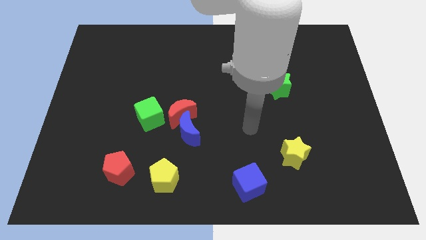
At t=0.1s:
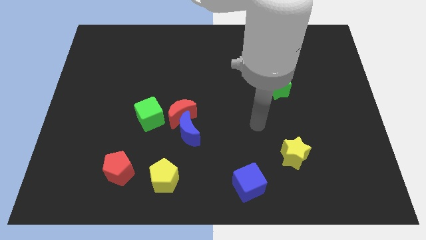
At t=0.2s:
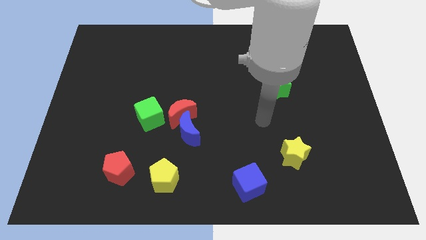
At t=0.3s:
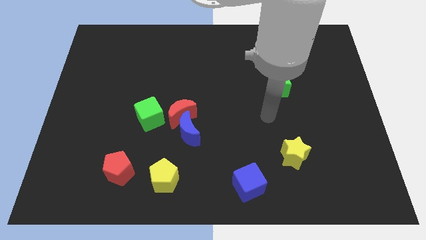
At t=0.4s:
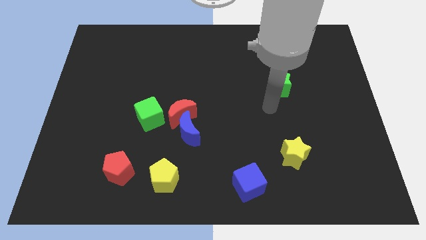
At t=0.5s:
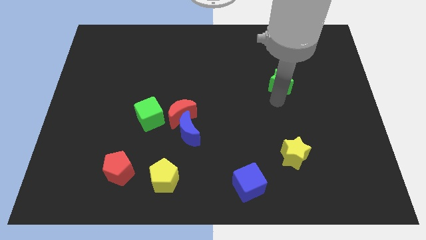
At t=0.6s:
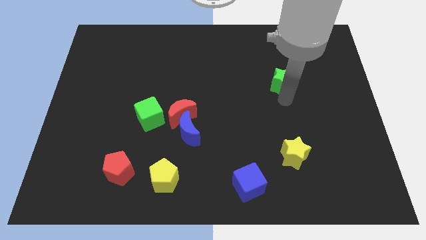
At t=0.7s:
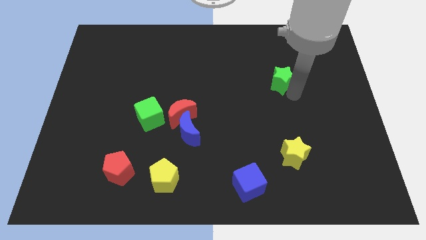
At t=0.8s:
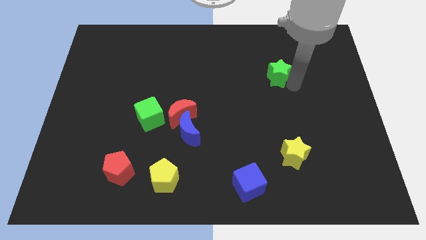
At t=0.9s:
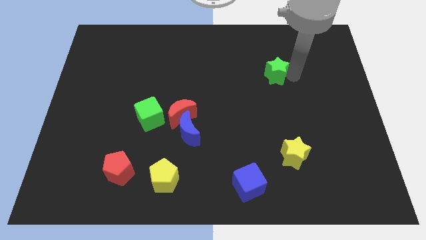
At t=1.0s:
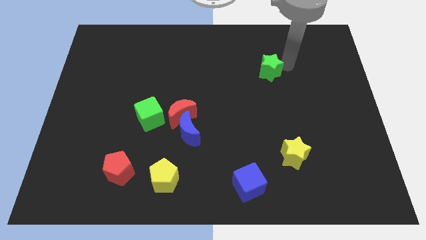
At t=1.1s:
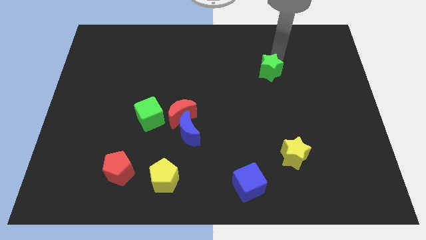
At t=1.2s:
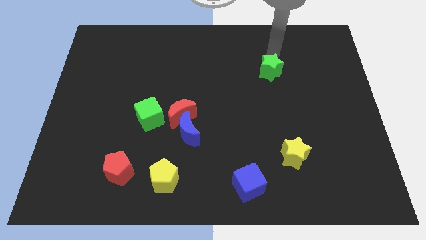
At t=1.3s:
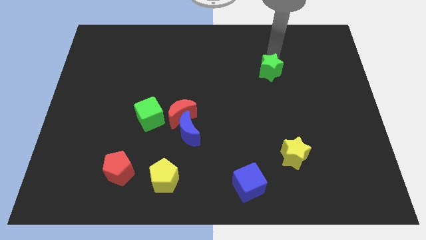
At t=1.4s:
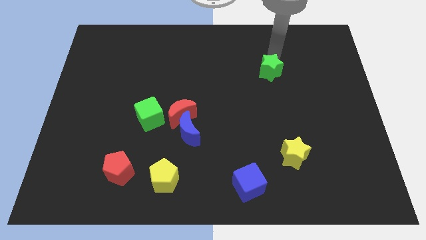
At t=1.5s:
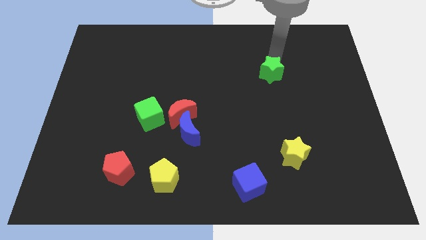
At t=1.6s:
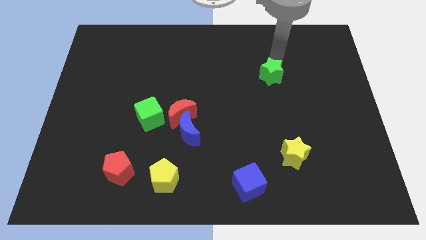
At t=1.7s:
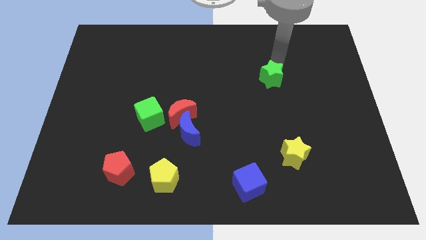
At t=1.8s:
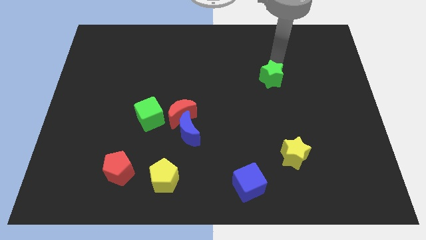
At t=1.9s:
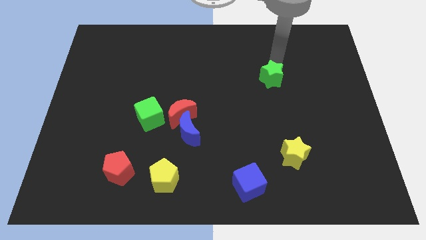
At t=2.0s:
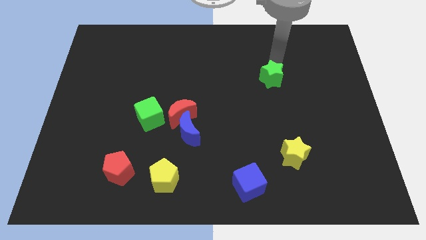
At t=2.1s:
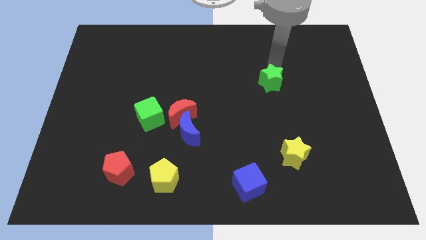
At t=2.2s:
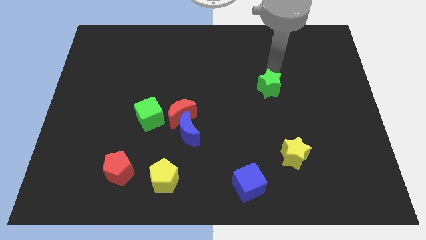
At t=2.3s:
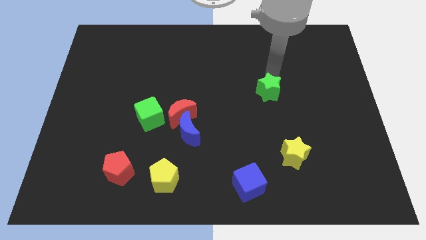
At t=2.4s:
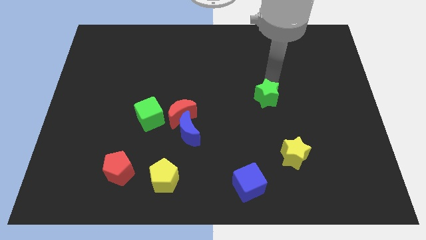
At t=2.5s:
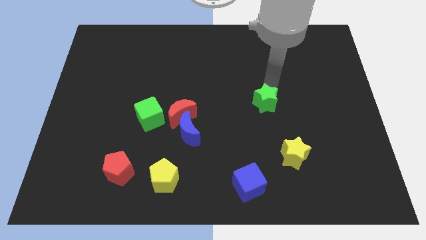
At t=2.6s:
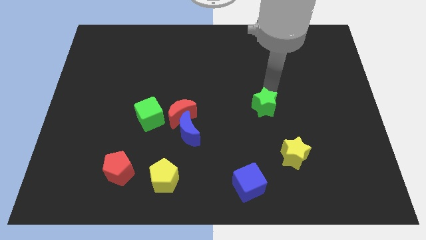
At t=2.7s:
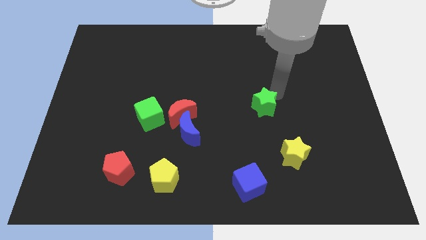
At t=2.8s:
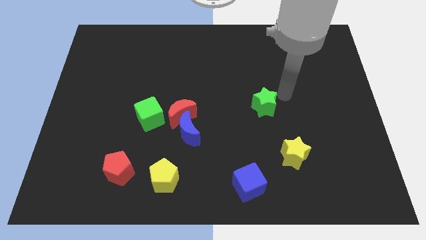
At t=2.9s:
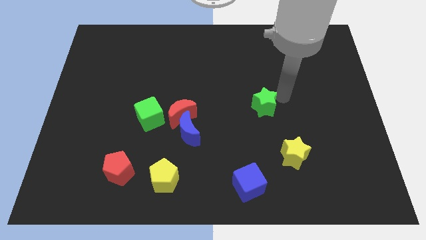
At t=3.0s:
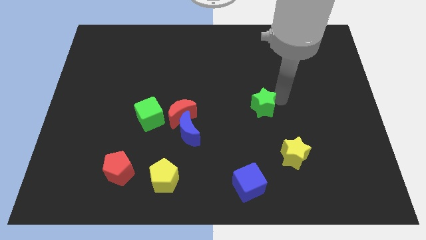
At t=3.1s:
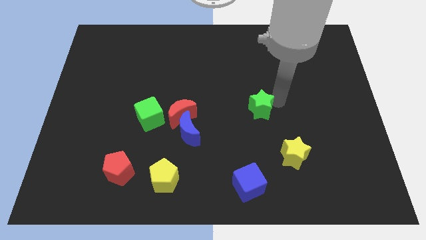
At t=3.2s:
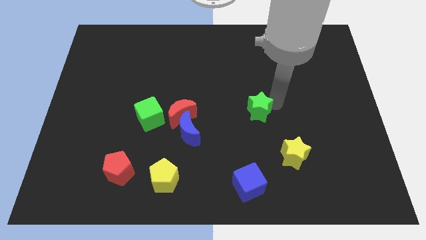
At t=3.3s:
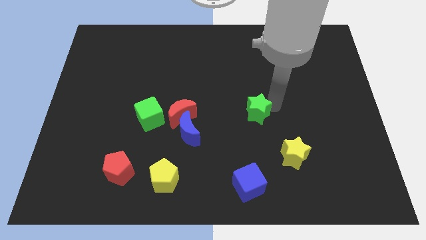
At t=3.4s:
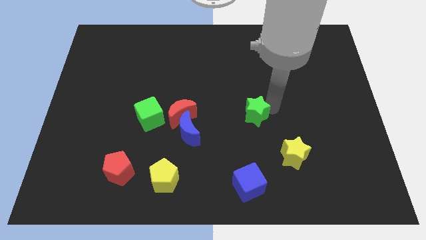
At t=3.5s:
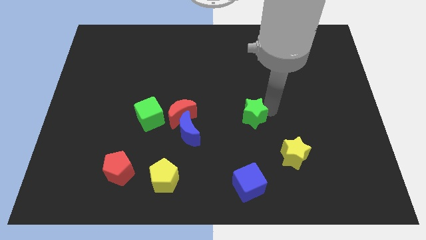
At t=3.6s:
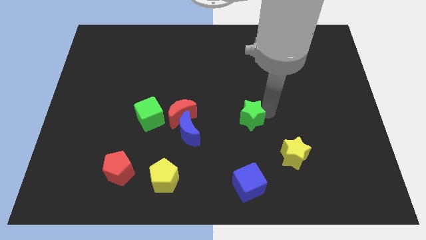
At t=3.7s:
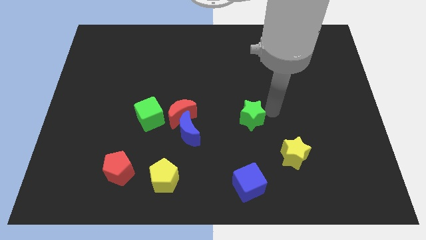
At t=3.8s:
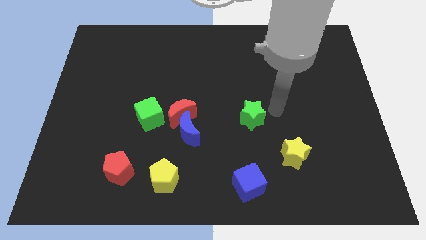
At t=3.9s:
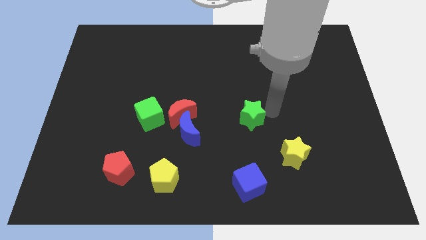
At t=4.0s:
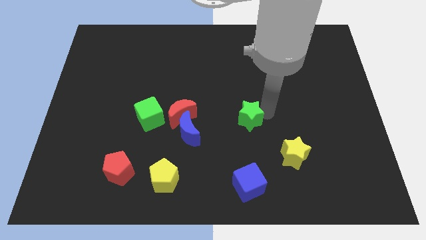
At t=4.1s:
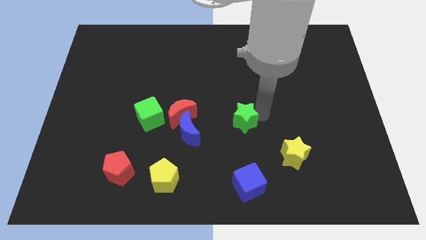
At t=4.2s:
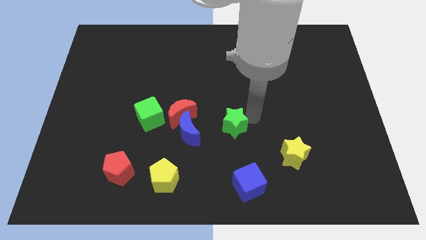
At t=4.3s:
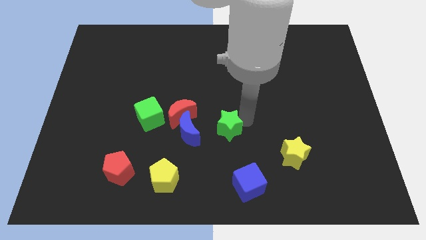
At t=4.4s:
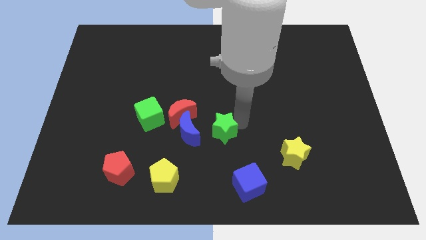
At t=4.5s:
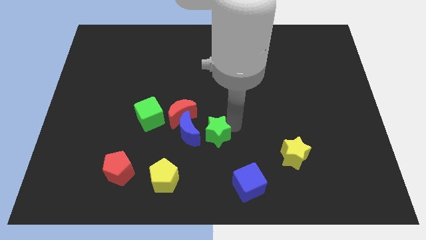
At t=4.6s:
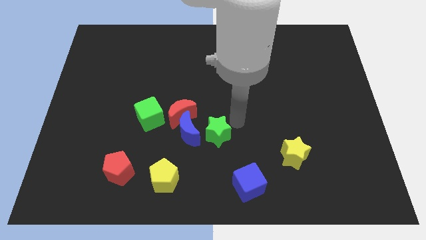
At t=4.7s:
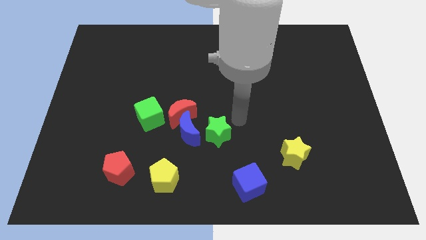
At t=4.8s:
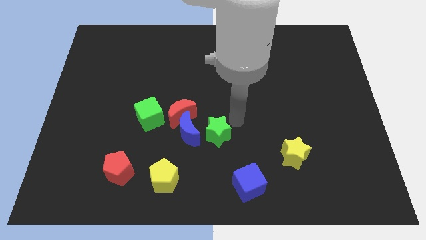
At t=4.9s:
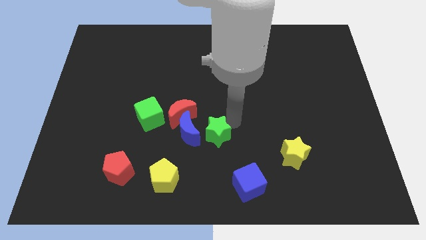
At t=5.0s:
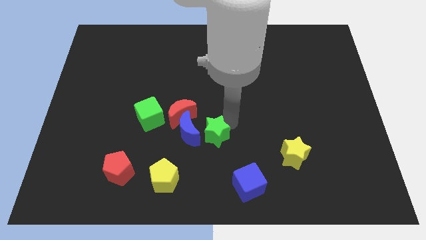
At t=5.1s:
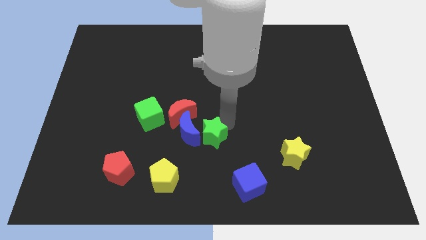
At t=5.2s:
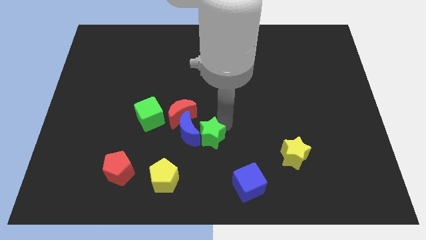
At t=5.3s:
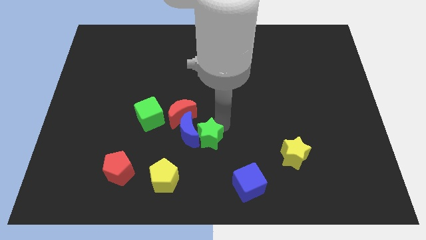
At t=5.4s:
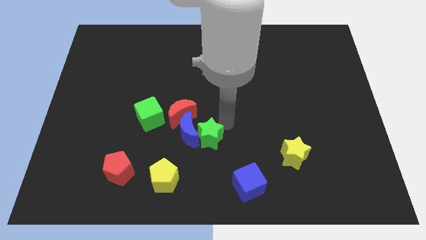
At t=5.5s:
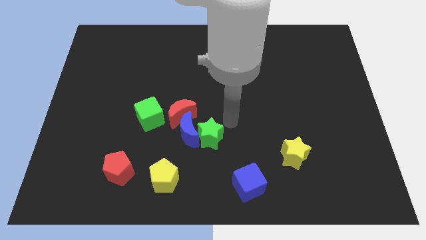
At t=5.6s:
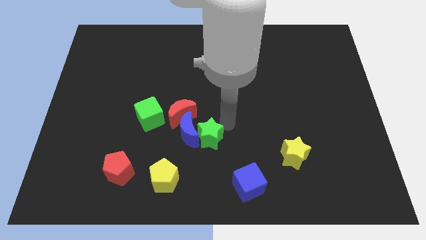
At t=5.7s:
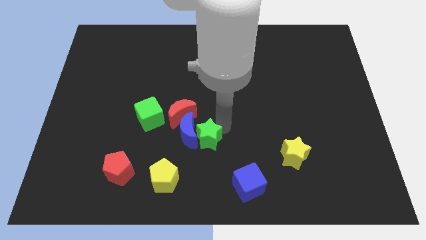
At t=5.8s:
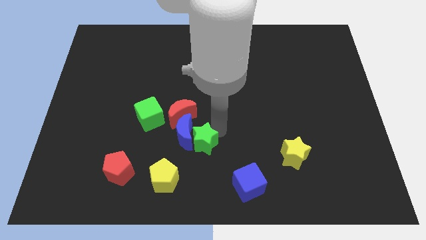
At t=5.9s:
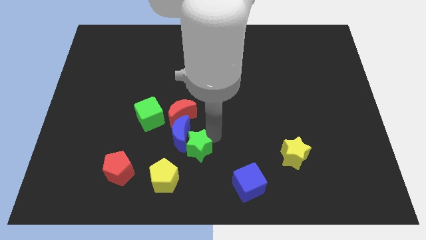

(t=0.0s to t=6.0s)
push the green star to the bottom of the red moon

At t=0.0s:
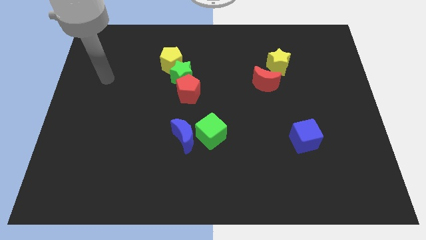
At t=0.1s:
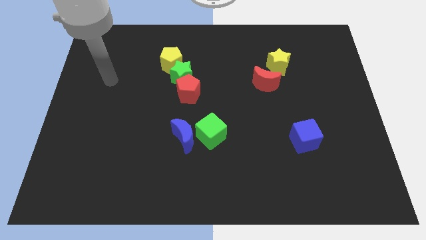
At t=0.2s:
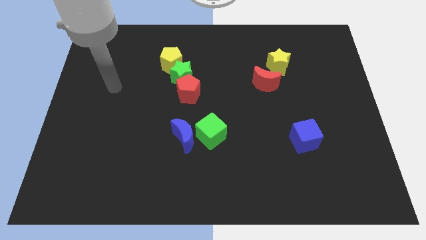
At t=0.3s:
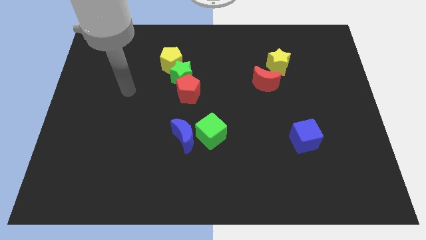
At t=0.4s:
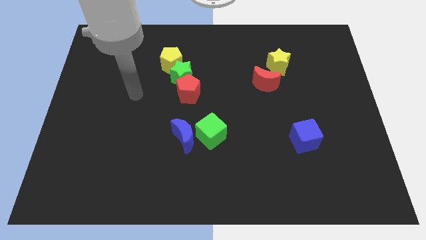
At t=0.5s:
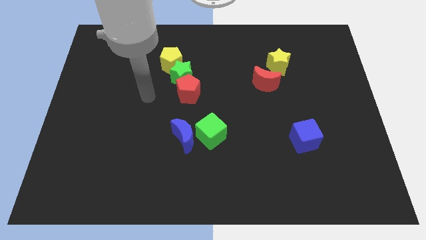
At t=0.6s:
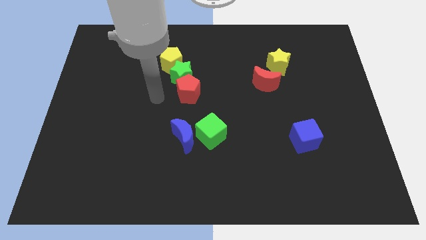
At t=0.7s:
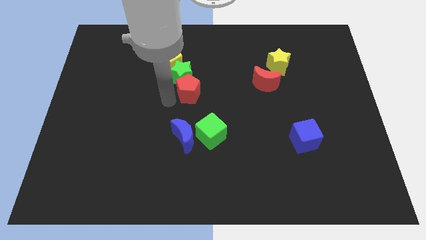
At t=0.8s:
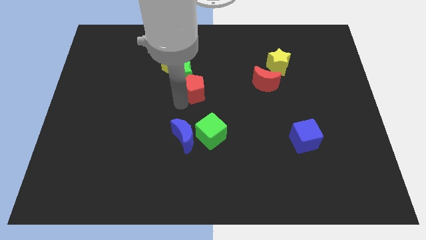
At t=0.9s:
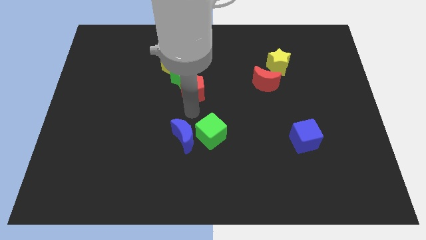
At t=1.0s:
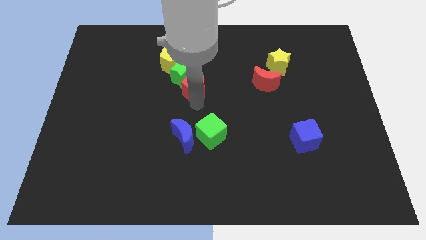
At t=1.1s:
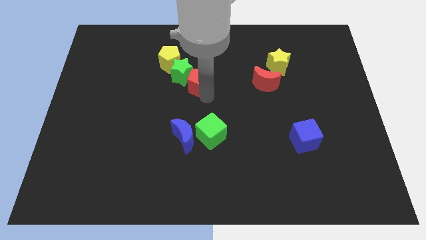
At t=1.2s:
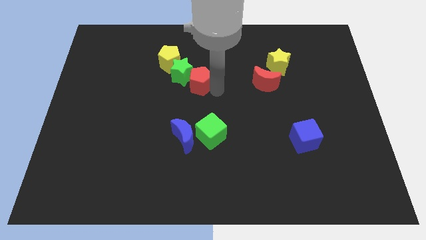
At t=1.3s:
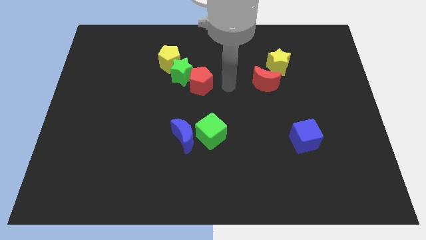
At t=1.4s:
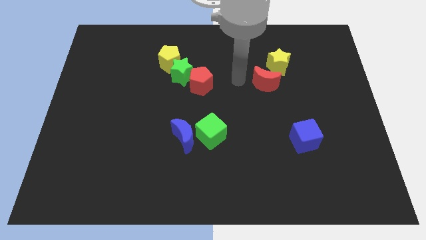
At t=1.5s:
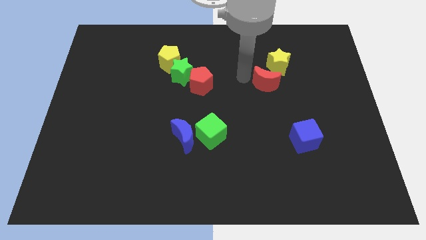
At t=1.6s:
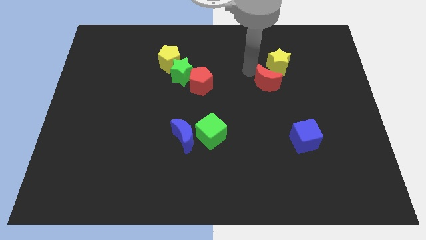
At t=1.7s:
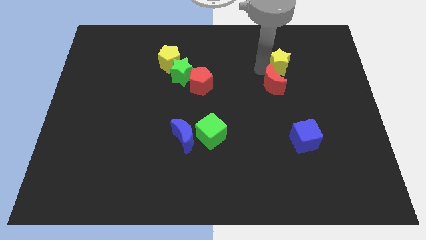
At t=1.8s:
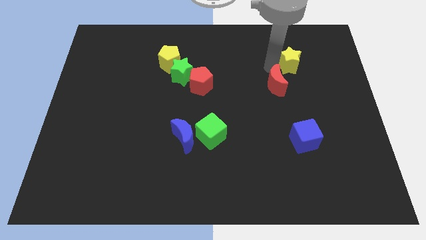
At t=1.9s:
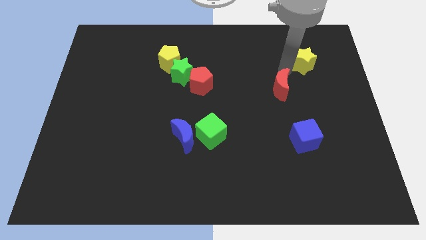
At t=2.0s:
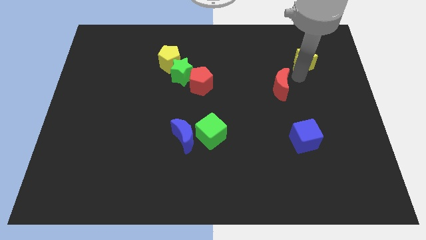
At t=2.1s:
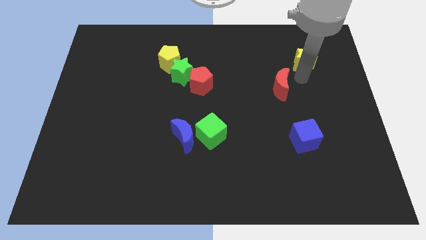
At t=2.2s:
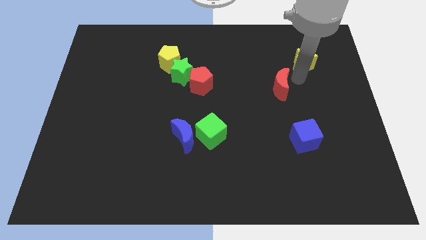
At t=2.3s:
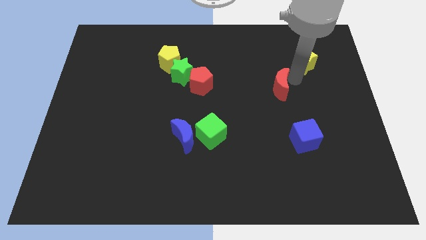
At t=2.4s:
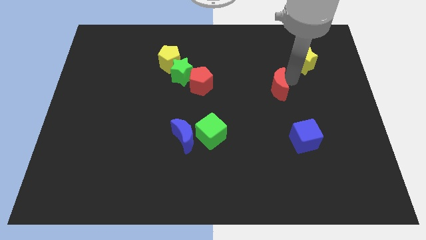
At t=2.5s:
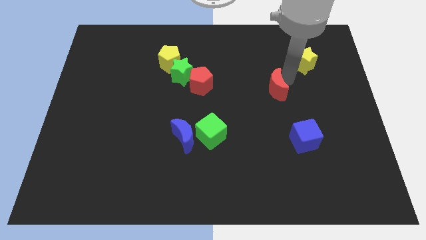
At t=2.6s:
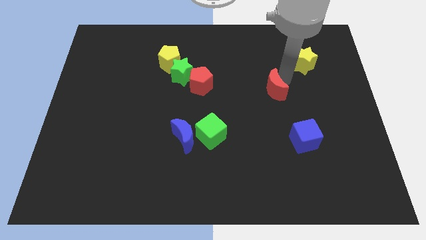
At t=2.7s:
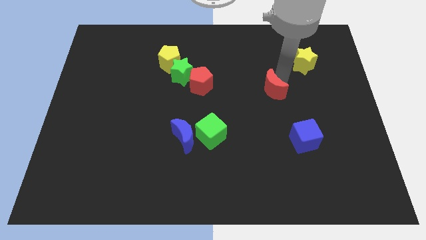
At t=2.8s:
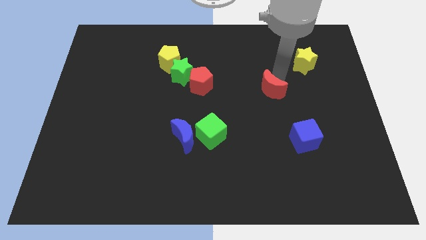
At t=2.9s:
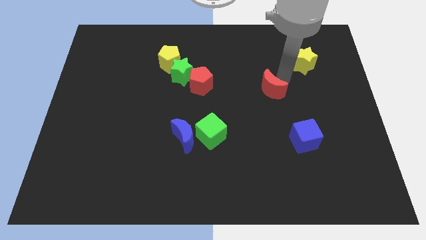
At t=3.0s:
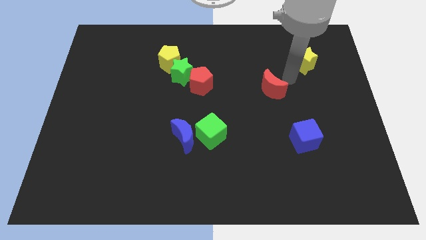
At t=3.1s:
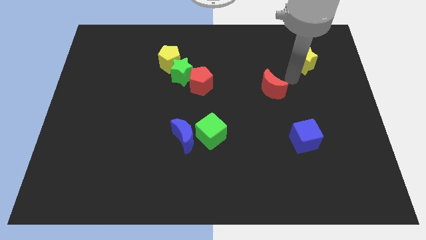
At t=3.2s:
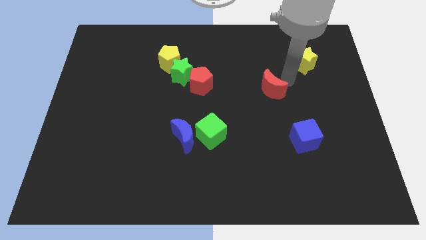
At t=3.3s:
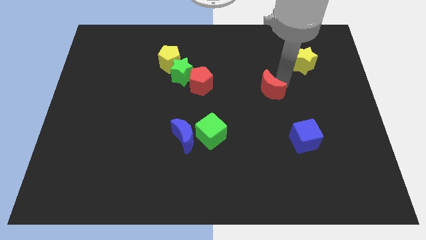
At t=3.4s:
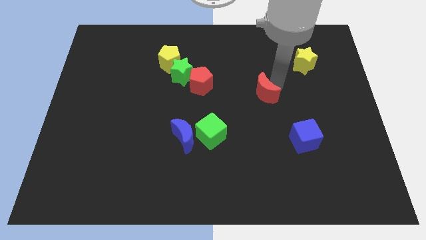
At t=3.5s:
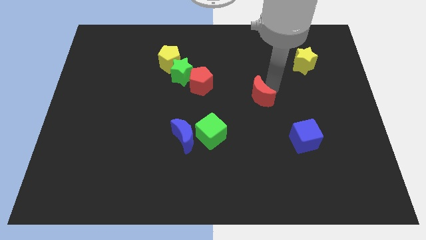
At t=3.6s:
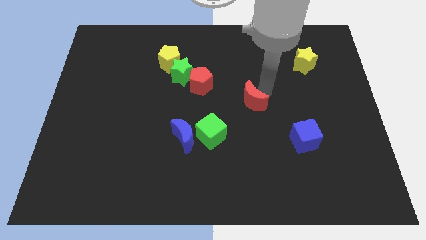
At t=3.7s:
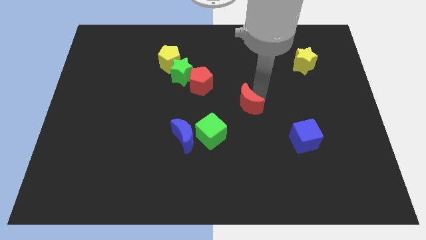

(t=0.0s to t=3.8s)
slide the red moon to the top right of the green cube
